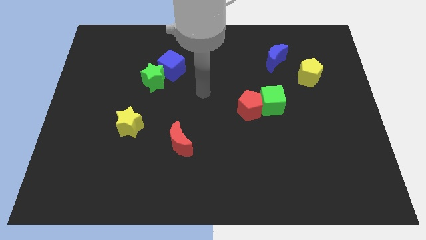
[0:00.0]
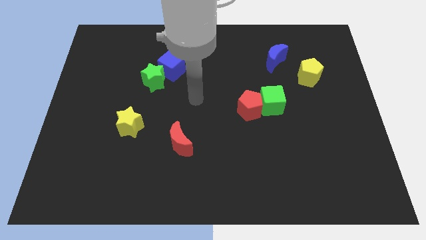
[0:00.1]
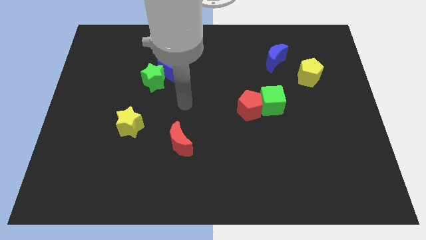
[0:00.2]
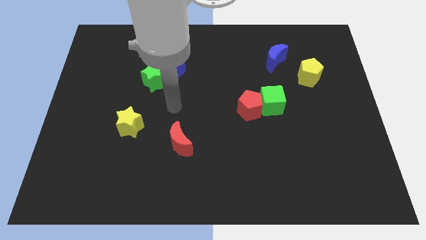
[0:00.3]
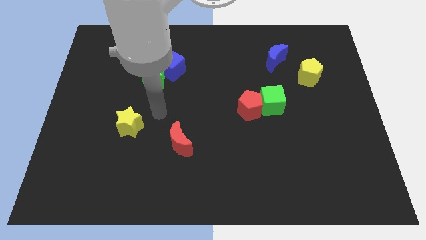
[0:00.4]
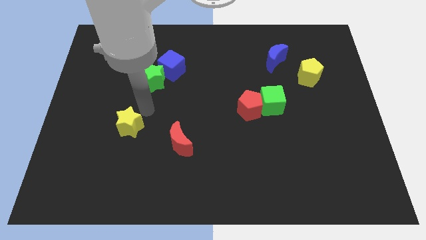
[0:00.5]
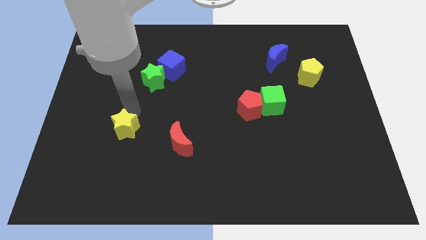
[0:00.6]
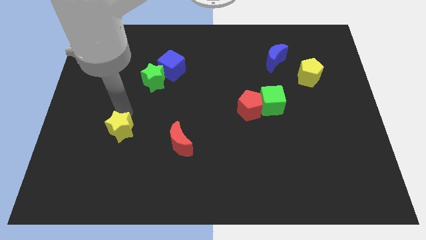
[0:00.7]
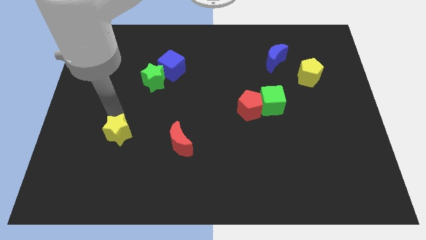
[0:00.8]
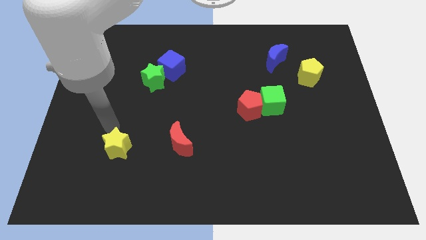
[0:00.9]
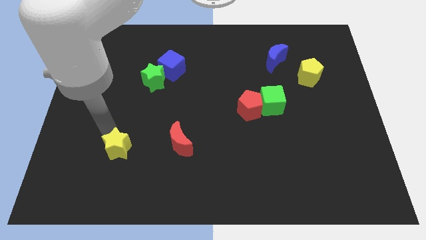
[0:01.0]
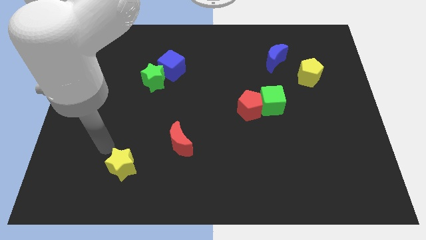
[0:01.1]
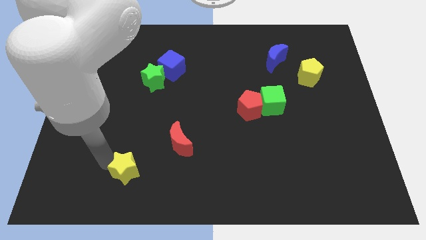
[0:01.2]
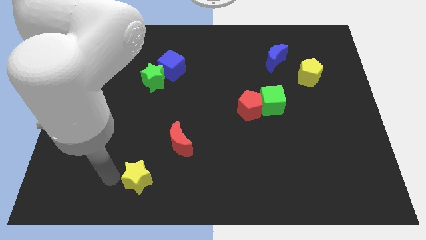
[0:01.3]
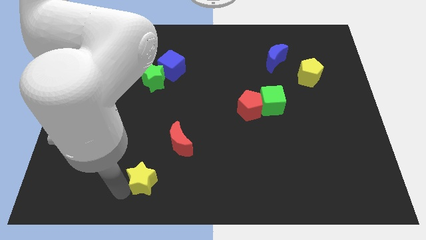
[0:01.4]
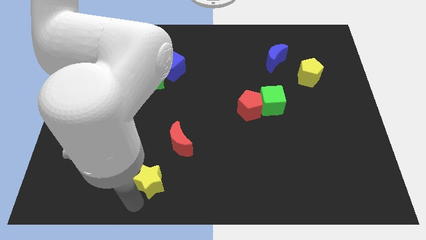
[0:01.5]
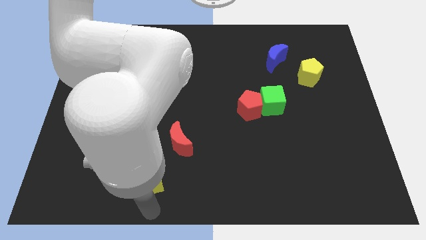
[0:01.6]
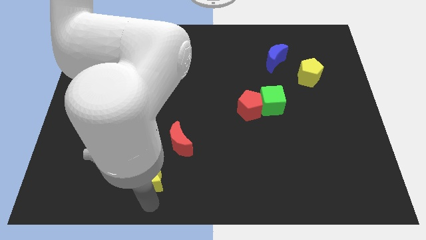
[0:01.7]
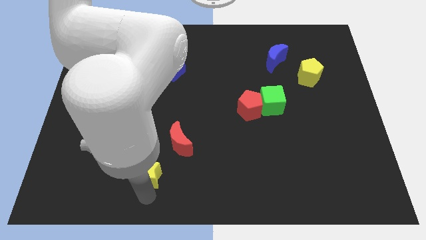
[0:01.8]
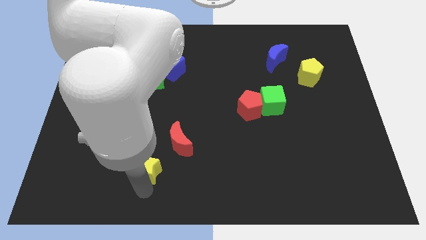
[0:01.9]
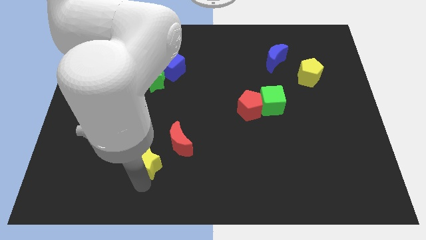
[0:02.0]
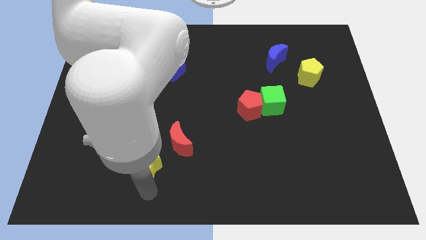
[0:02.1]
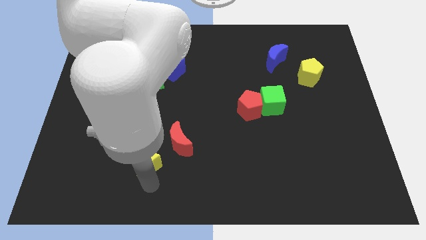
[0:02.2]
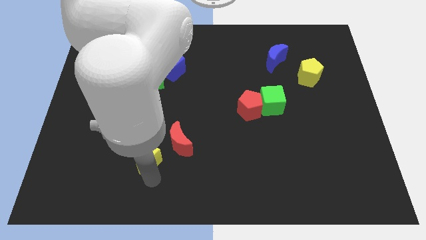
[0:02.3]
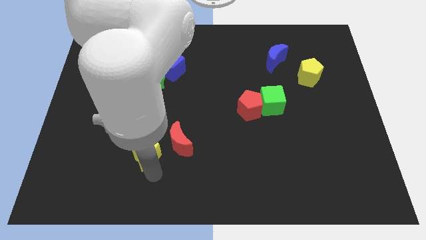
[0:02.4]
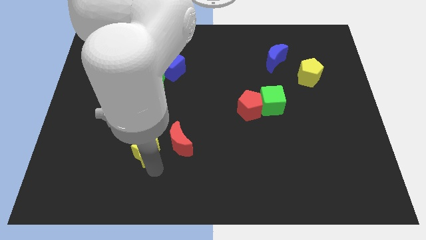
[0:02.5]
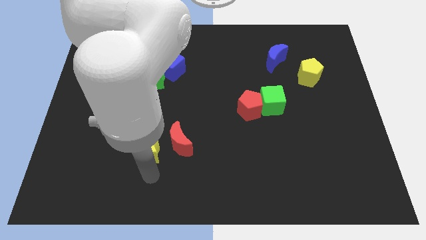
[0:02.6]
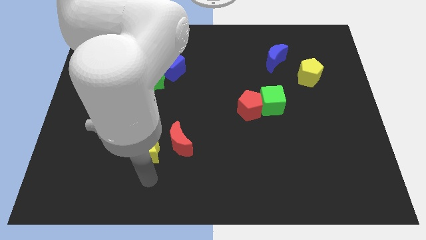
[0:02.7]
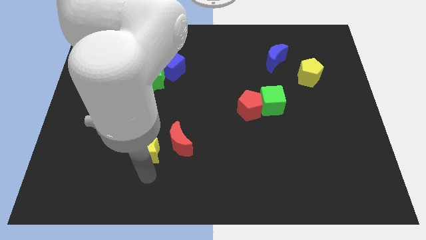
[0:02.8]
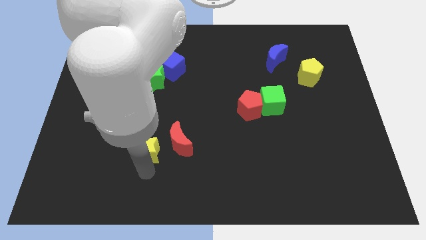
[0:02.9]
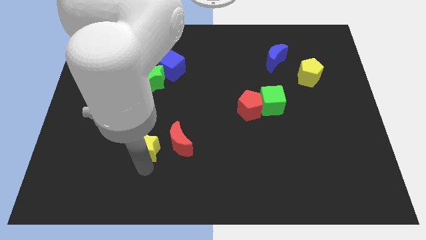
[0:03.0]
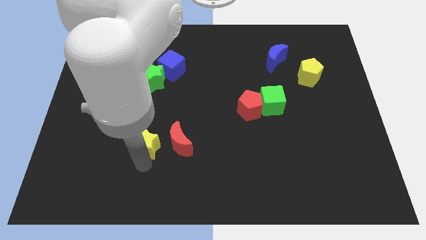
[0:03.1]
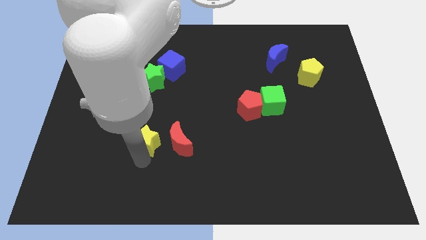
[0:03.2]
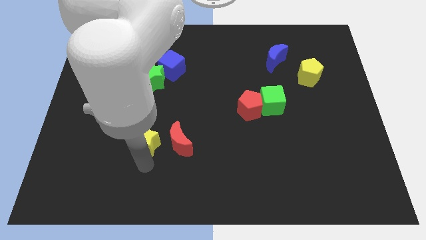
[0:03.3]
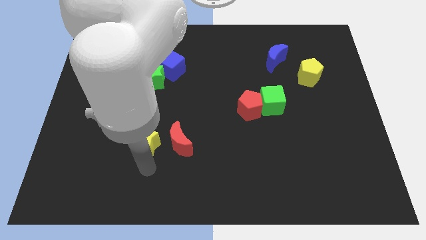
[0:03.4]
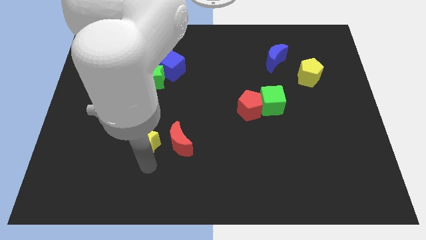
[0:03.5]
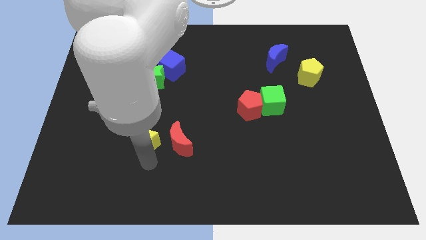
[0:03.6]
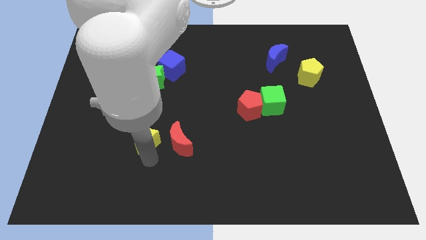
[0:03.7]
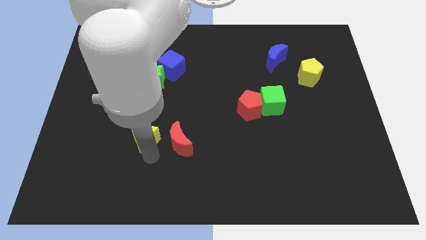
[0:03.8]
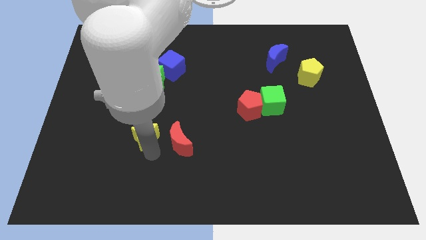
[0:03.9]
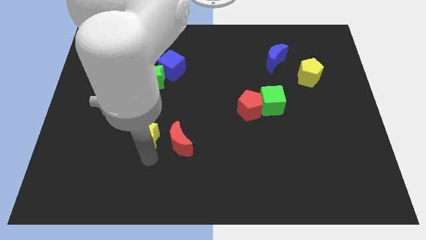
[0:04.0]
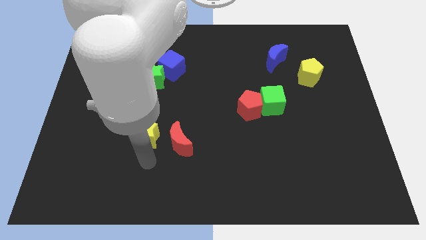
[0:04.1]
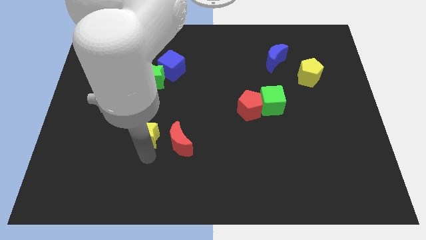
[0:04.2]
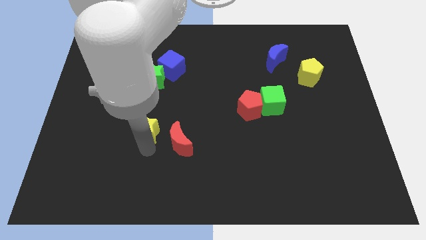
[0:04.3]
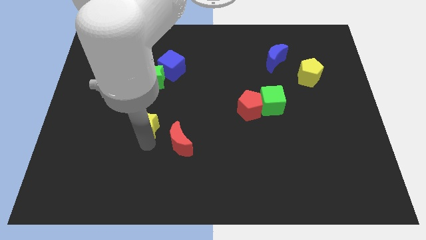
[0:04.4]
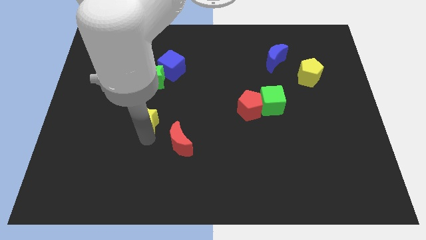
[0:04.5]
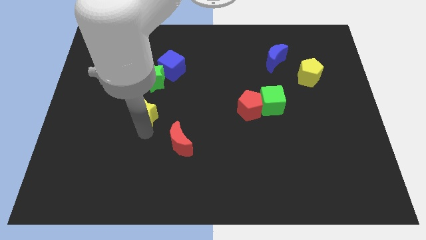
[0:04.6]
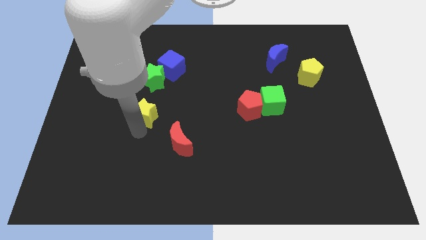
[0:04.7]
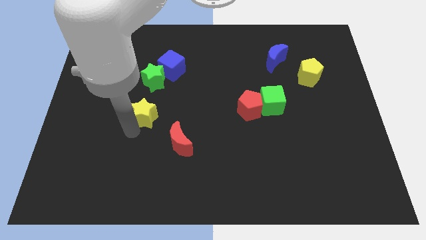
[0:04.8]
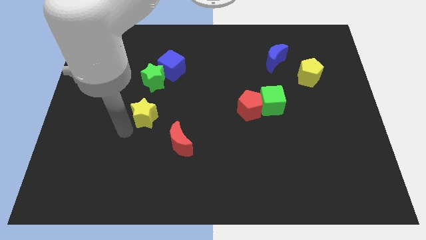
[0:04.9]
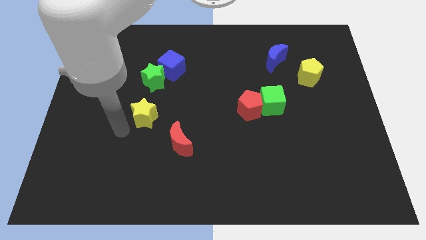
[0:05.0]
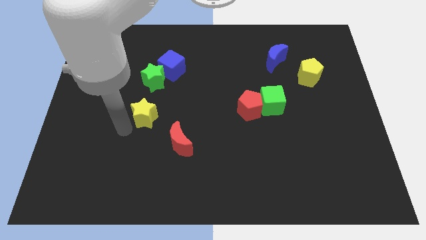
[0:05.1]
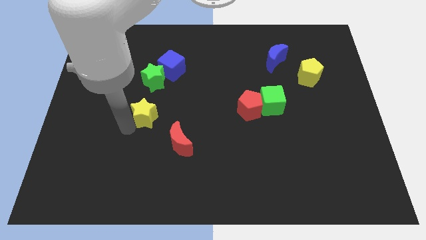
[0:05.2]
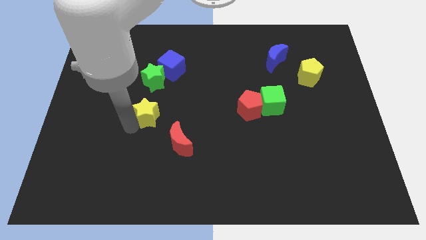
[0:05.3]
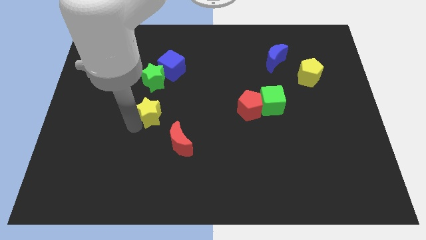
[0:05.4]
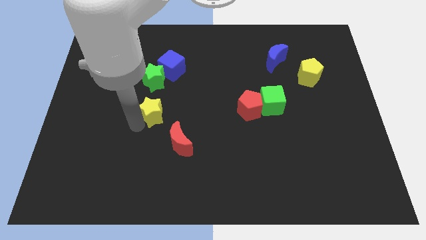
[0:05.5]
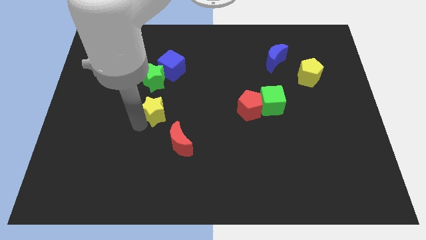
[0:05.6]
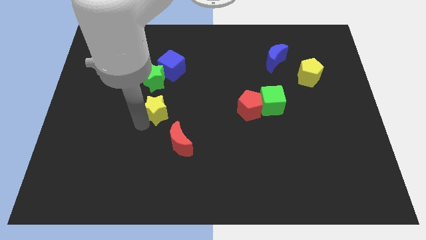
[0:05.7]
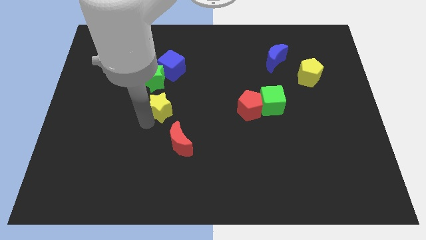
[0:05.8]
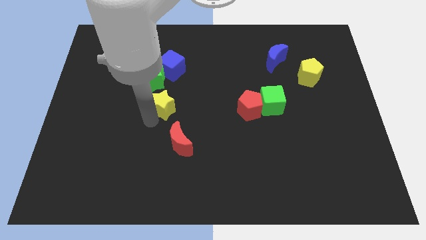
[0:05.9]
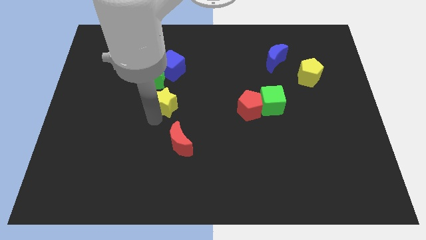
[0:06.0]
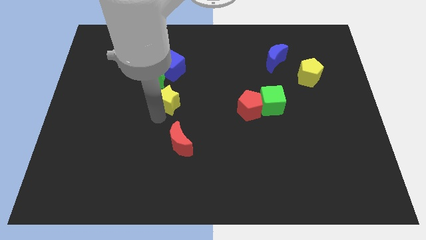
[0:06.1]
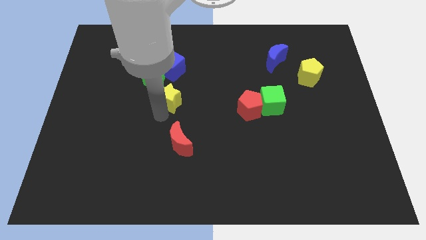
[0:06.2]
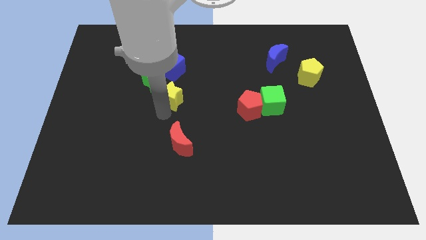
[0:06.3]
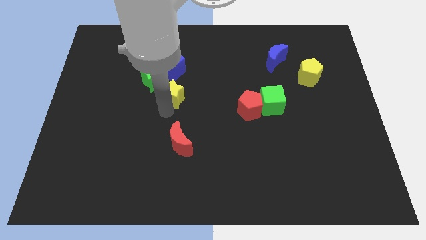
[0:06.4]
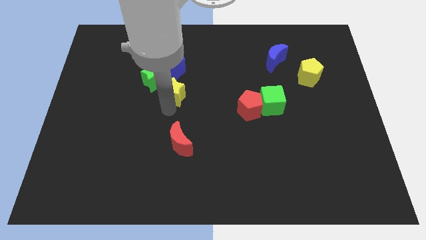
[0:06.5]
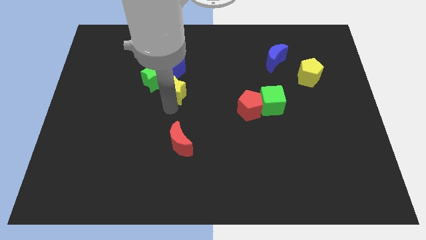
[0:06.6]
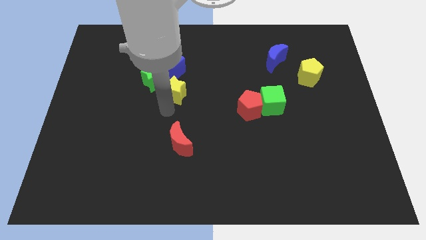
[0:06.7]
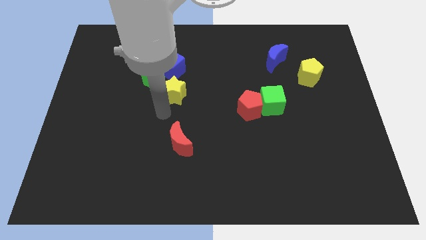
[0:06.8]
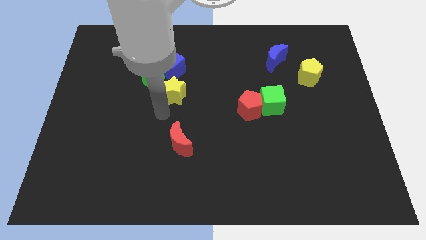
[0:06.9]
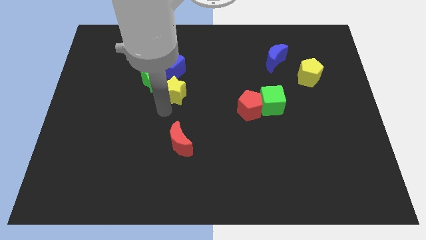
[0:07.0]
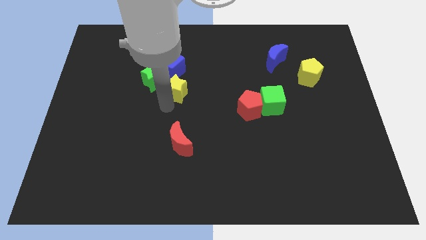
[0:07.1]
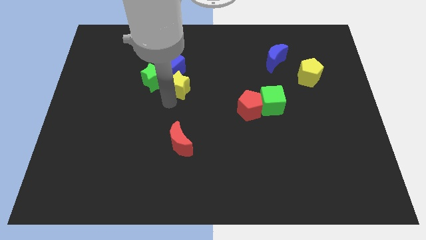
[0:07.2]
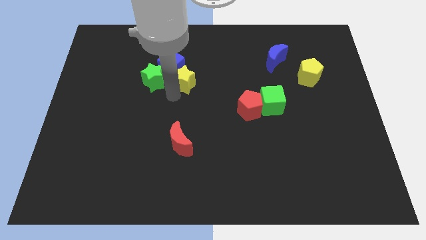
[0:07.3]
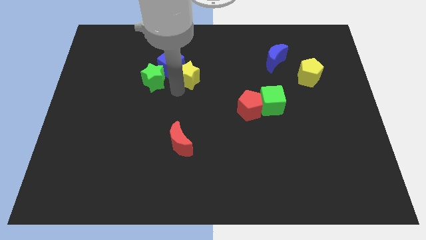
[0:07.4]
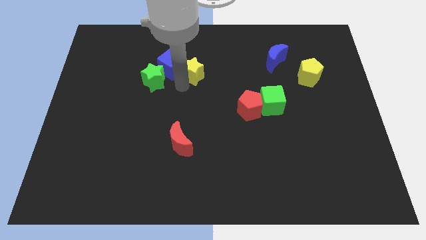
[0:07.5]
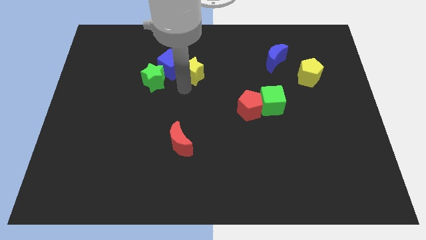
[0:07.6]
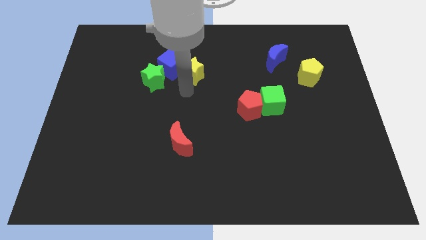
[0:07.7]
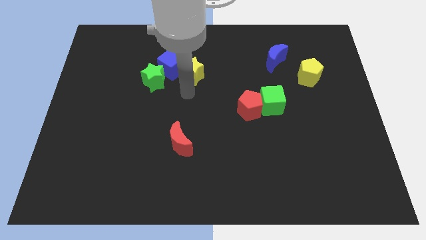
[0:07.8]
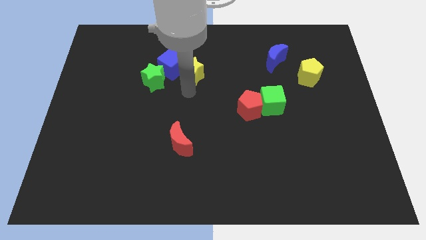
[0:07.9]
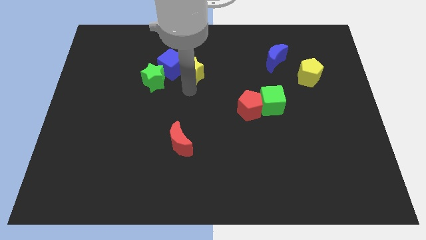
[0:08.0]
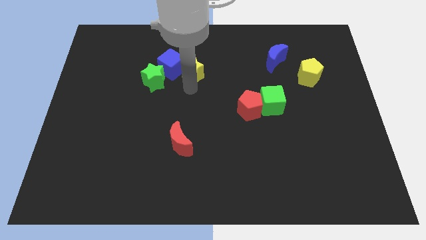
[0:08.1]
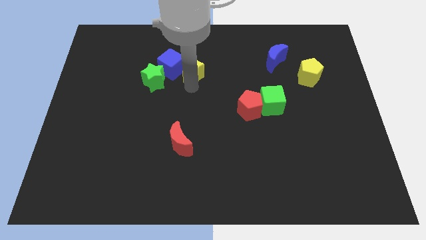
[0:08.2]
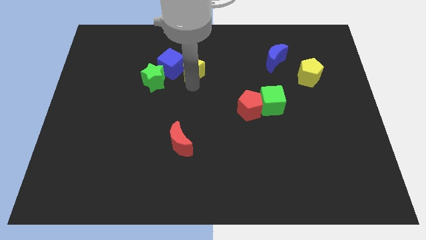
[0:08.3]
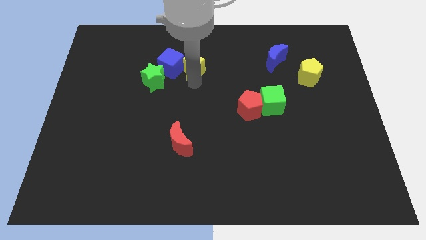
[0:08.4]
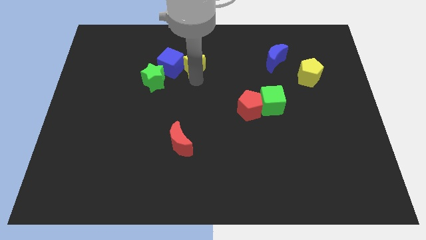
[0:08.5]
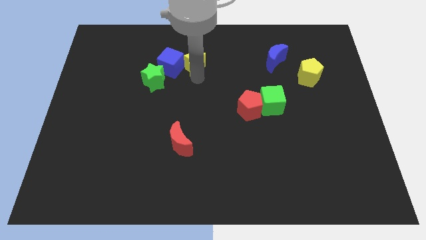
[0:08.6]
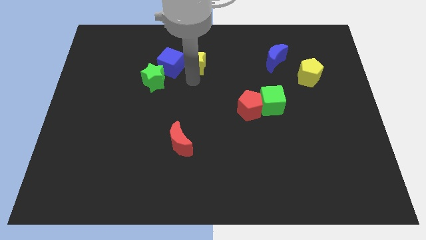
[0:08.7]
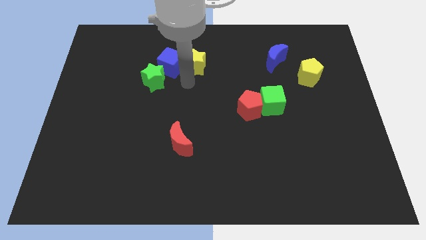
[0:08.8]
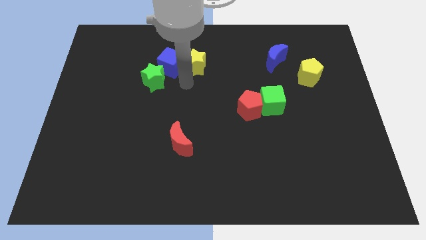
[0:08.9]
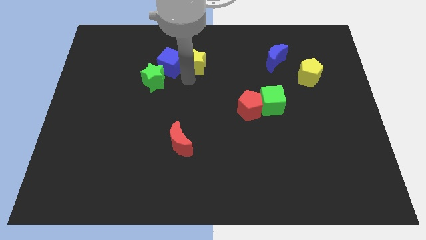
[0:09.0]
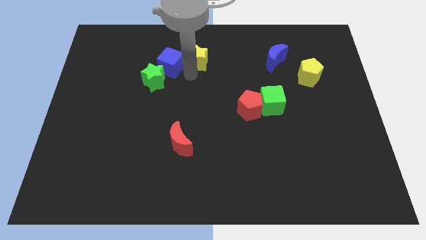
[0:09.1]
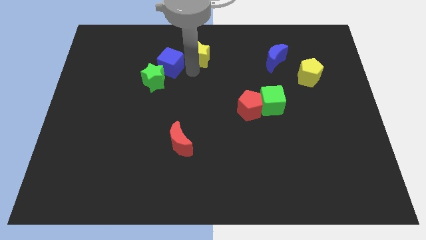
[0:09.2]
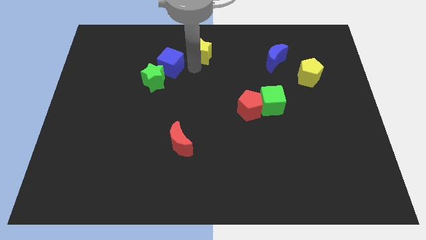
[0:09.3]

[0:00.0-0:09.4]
move the yellow star to the towards your base
